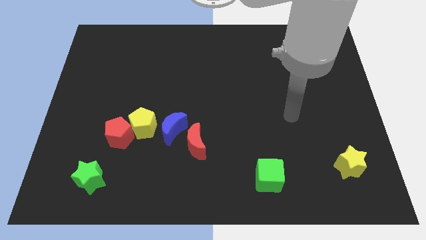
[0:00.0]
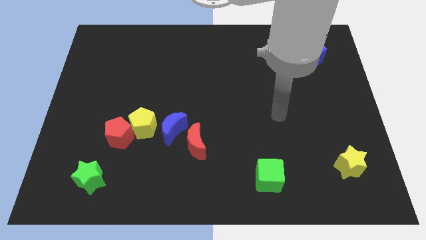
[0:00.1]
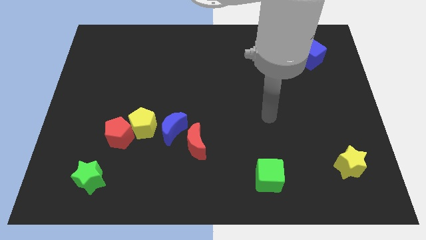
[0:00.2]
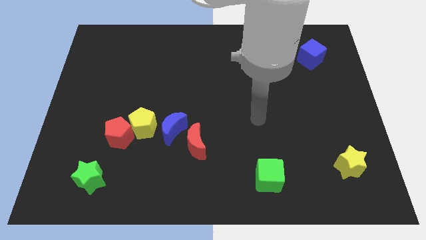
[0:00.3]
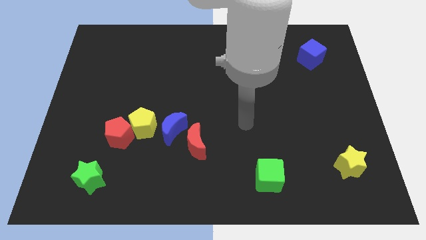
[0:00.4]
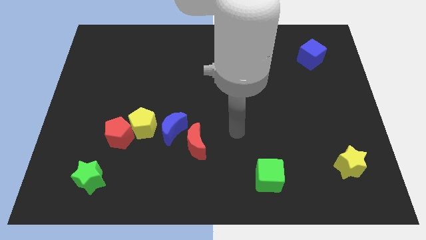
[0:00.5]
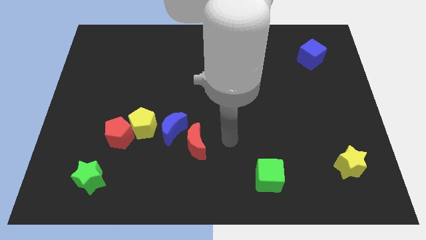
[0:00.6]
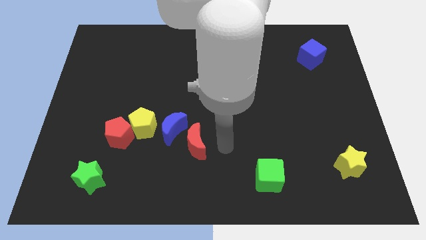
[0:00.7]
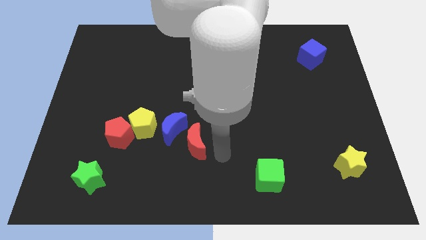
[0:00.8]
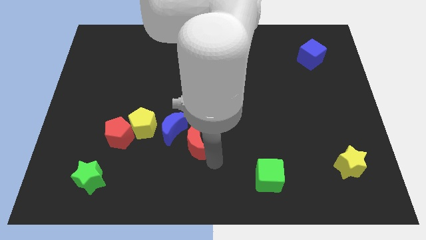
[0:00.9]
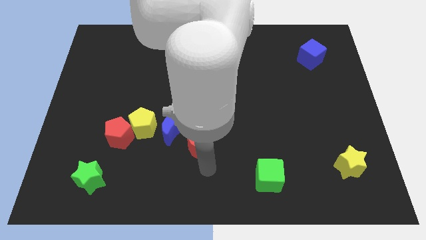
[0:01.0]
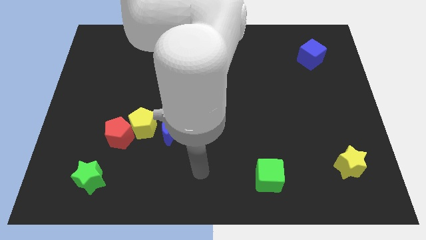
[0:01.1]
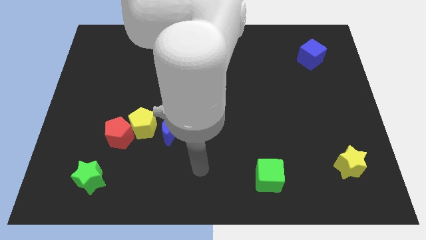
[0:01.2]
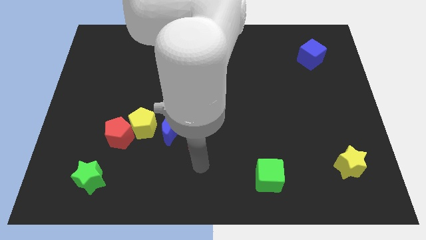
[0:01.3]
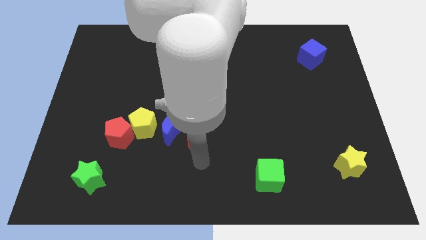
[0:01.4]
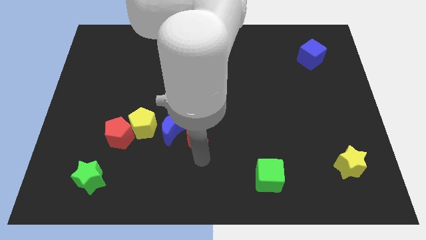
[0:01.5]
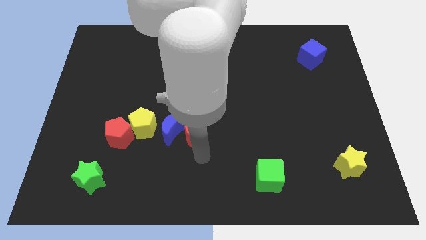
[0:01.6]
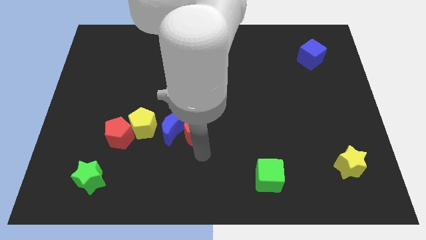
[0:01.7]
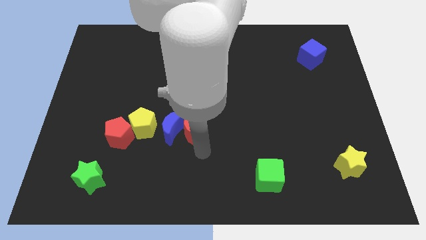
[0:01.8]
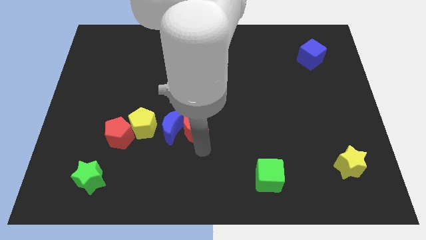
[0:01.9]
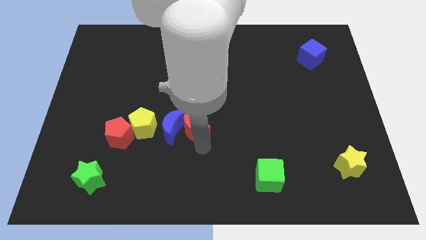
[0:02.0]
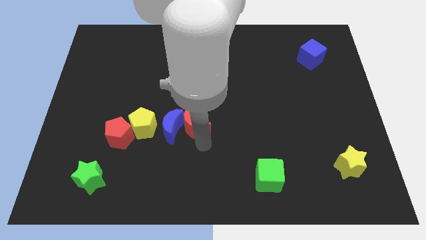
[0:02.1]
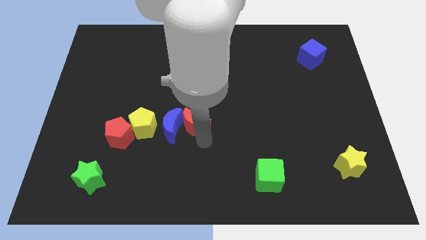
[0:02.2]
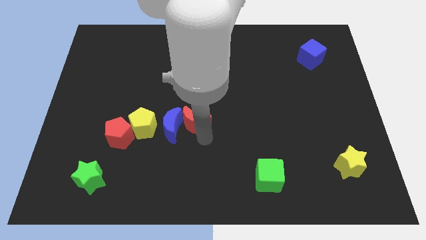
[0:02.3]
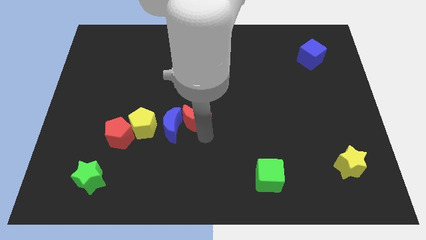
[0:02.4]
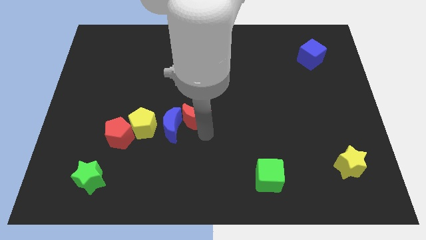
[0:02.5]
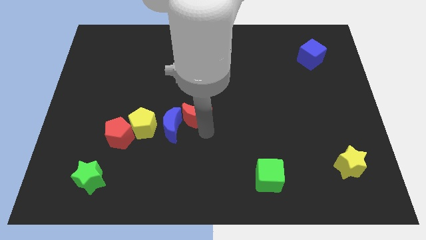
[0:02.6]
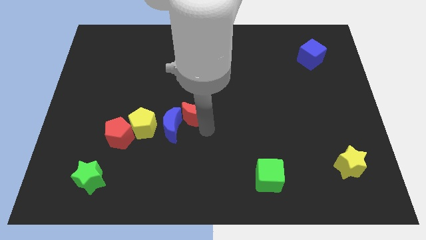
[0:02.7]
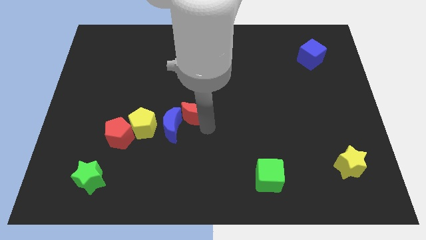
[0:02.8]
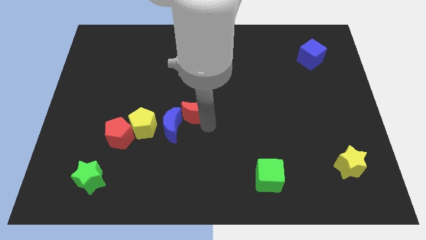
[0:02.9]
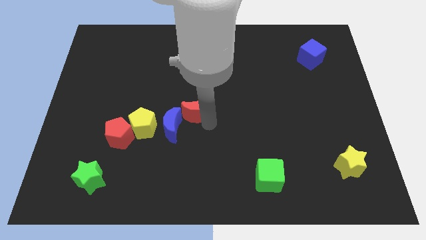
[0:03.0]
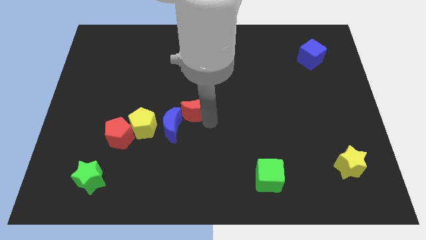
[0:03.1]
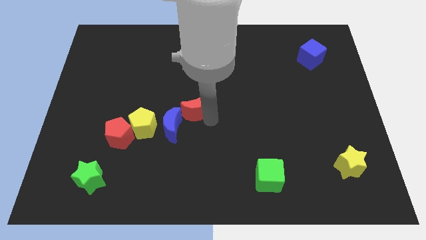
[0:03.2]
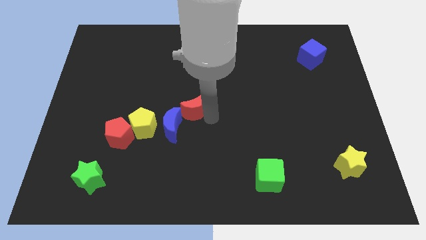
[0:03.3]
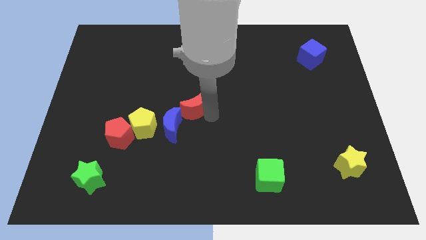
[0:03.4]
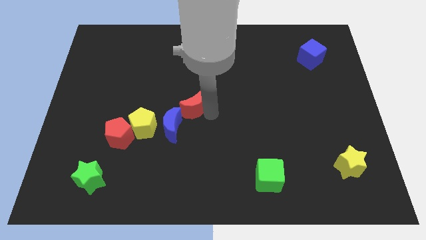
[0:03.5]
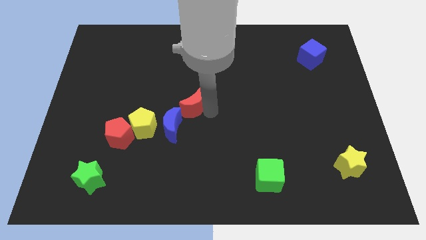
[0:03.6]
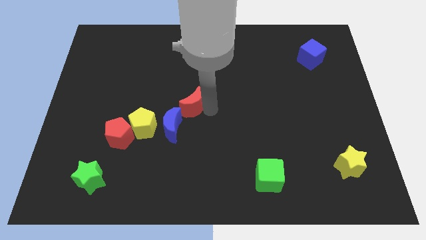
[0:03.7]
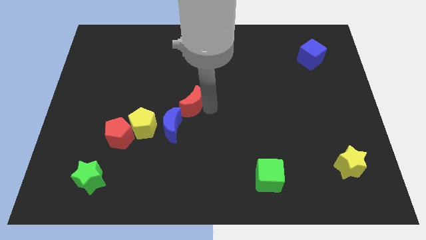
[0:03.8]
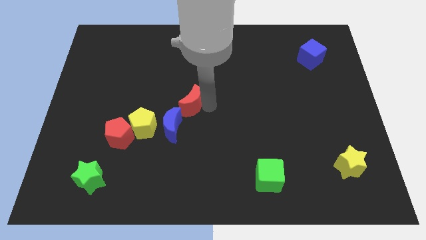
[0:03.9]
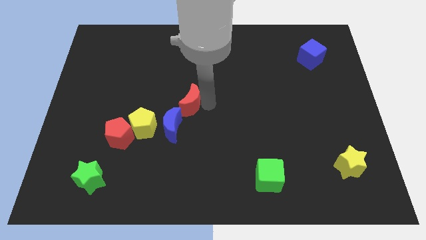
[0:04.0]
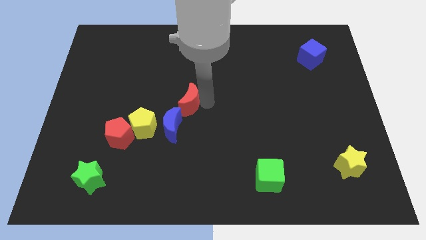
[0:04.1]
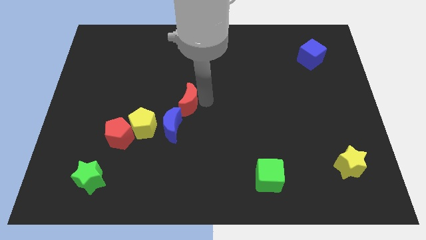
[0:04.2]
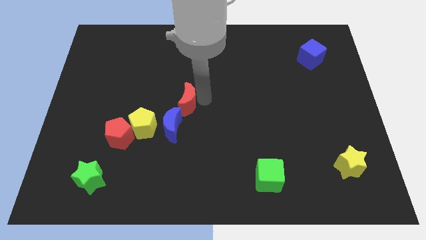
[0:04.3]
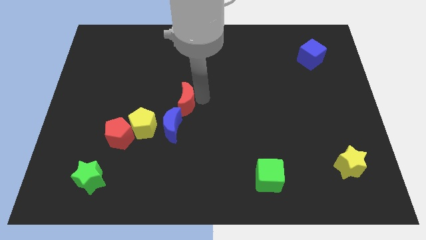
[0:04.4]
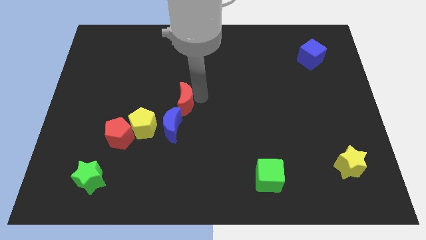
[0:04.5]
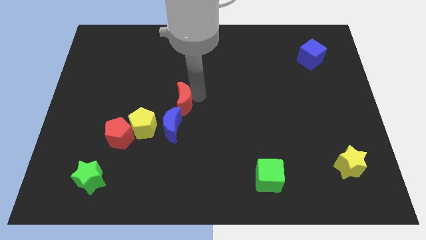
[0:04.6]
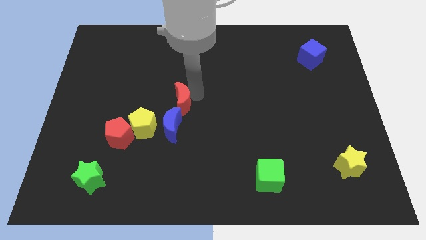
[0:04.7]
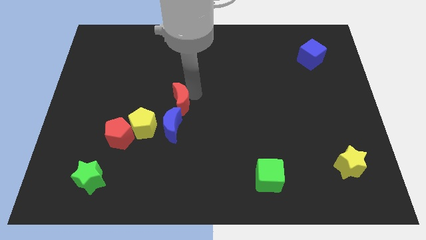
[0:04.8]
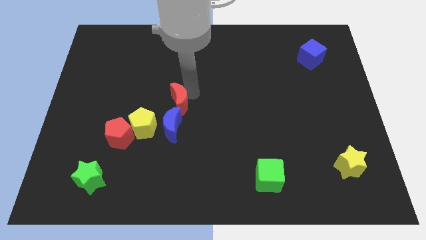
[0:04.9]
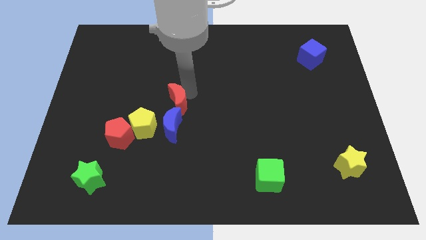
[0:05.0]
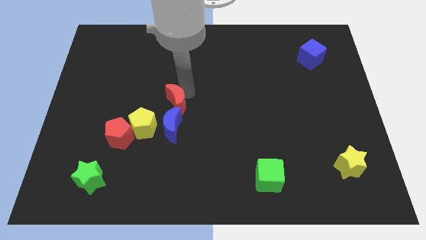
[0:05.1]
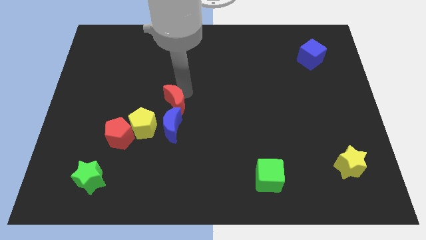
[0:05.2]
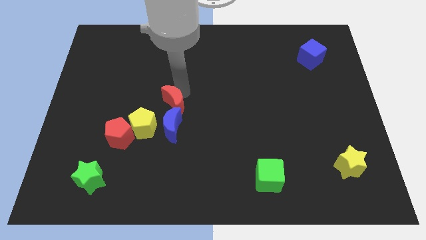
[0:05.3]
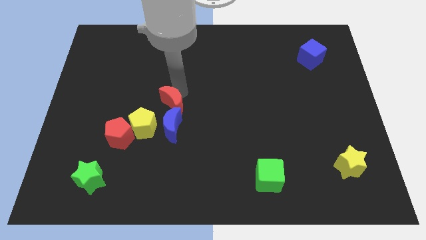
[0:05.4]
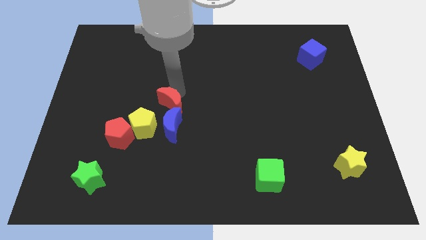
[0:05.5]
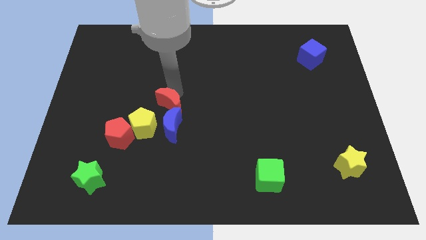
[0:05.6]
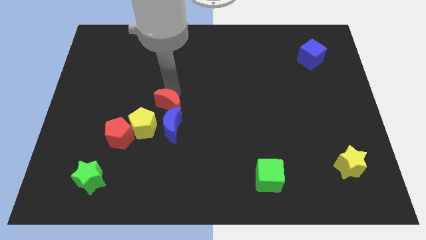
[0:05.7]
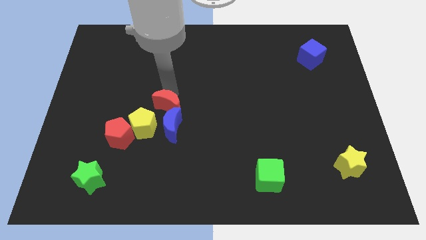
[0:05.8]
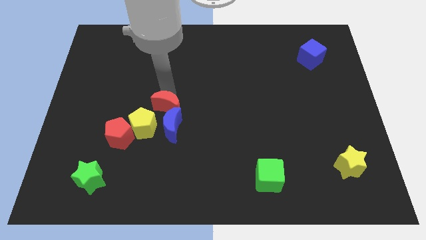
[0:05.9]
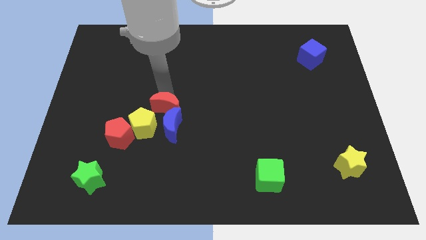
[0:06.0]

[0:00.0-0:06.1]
push the red moon to the top right side of the red pentagon

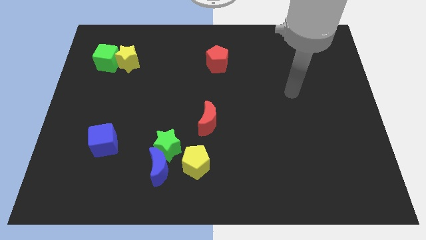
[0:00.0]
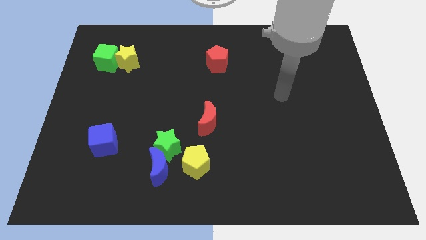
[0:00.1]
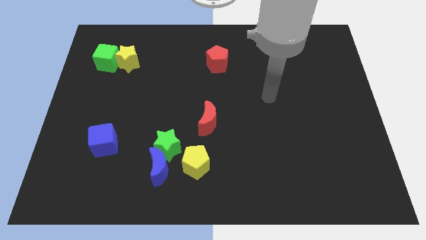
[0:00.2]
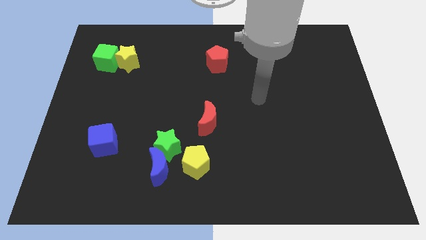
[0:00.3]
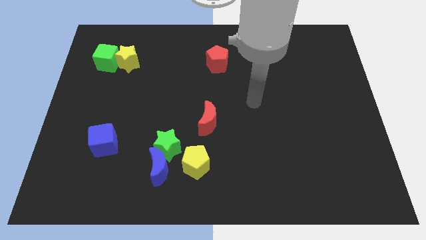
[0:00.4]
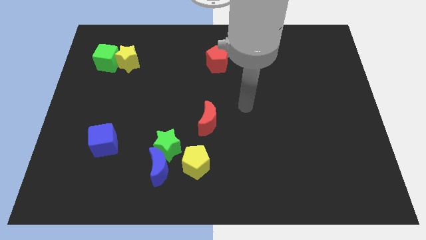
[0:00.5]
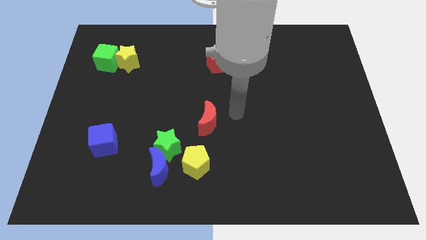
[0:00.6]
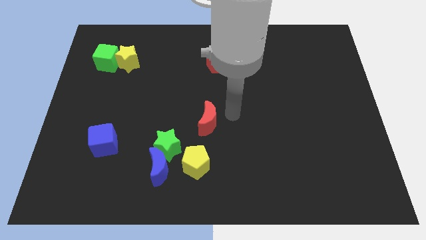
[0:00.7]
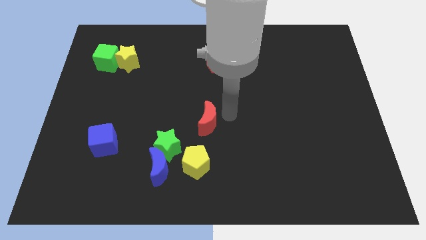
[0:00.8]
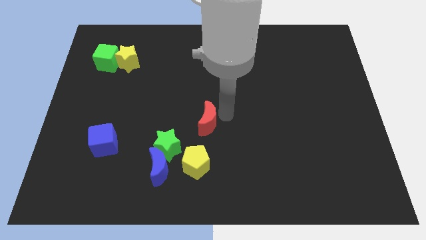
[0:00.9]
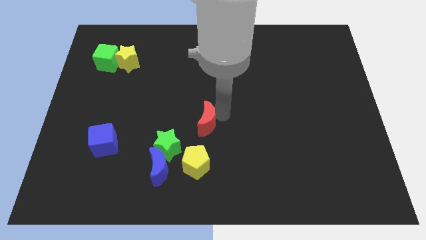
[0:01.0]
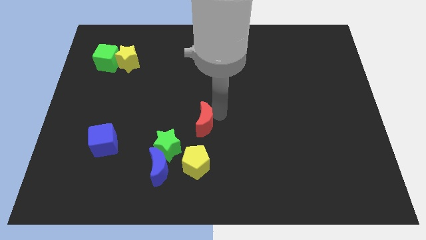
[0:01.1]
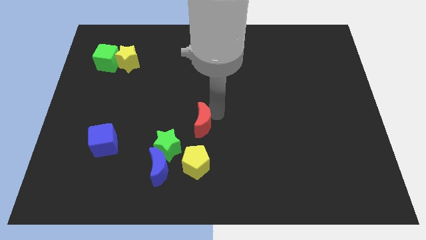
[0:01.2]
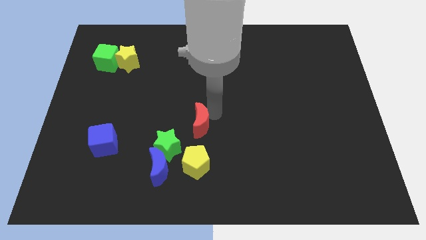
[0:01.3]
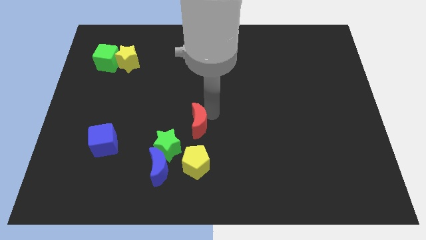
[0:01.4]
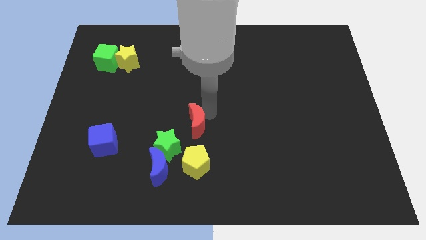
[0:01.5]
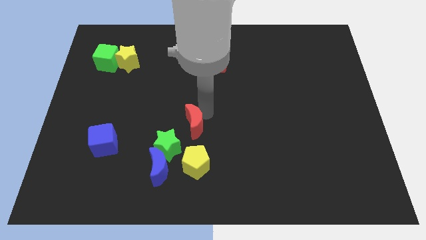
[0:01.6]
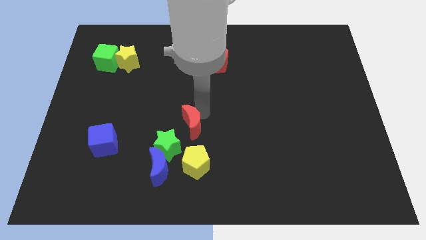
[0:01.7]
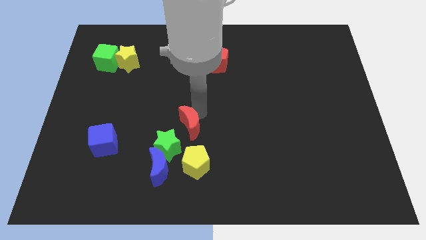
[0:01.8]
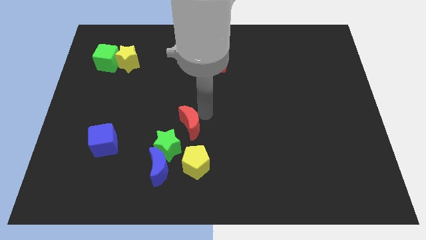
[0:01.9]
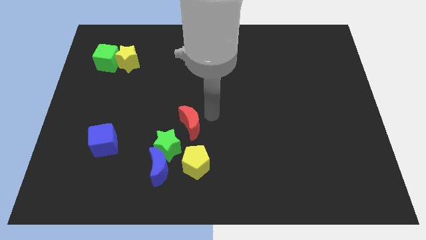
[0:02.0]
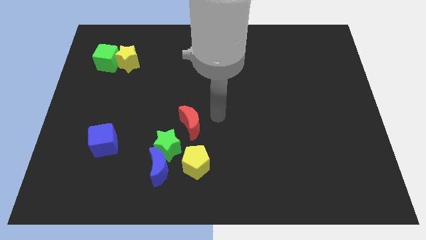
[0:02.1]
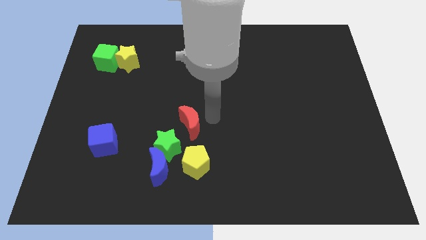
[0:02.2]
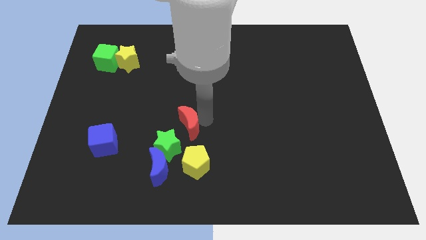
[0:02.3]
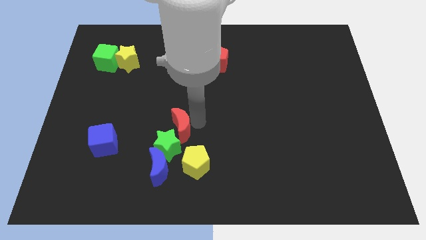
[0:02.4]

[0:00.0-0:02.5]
slide the red moon to the top left of the yellow pentagon
